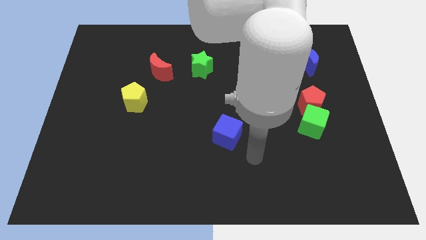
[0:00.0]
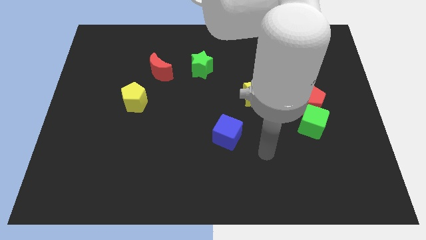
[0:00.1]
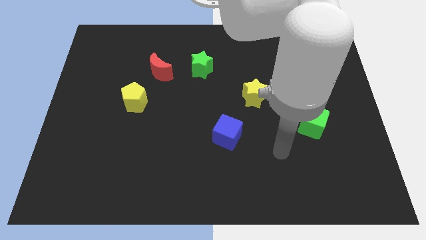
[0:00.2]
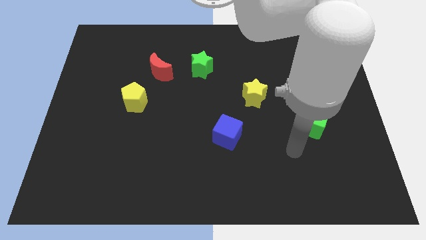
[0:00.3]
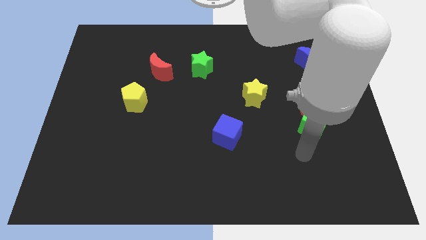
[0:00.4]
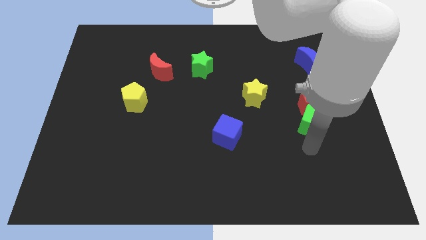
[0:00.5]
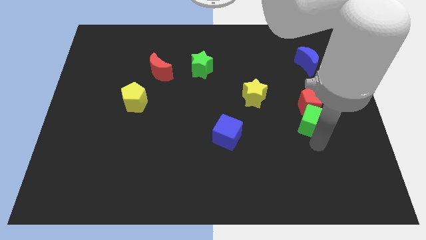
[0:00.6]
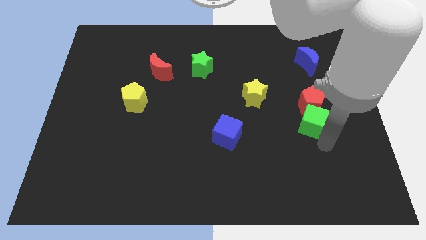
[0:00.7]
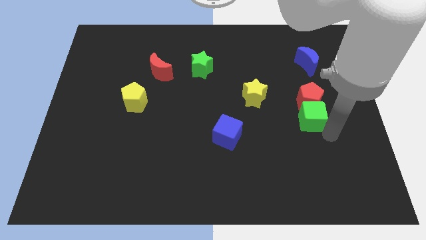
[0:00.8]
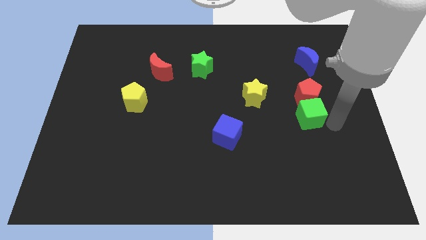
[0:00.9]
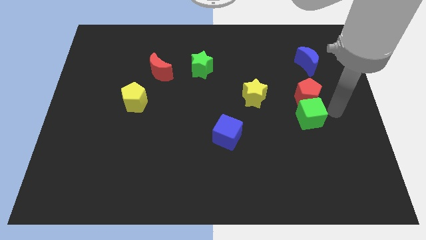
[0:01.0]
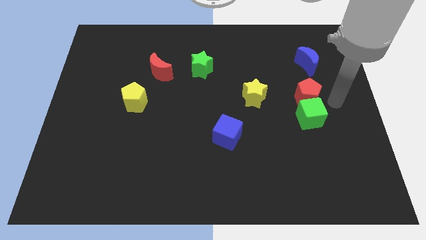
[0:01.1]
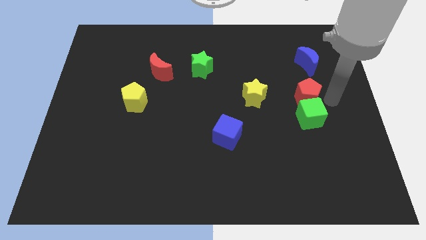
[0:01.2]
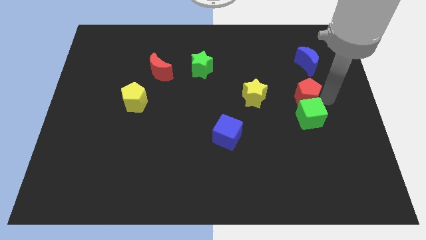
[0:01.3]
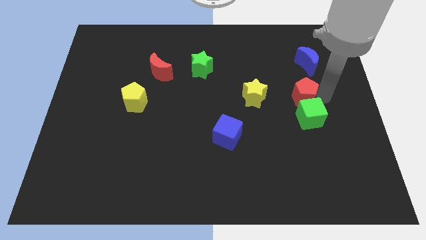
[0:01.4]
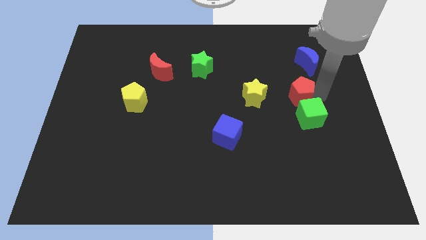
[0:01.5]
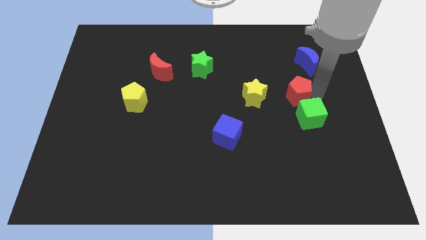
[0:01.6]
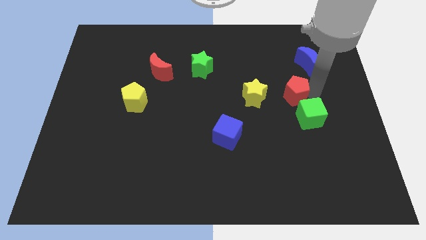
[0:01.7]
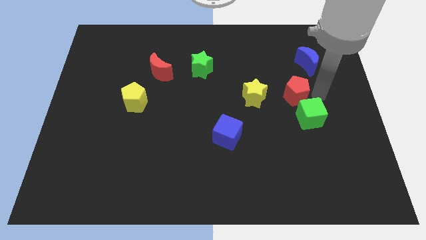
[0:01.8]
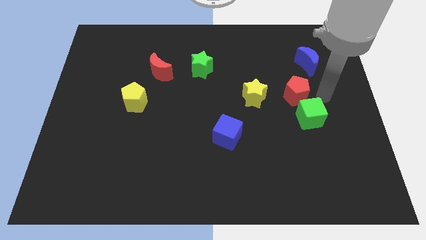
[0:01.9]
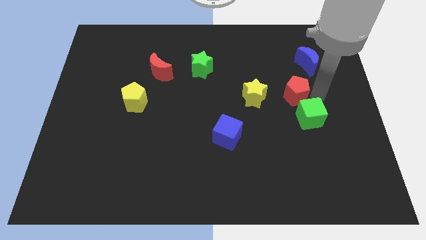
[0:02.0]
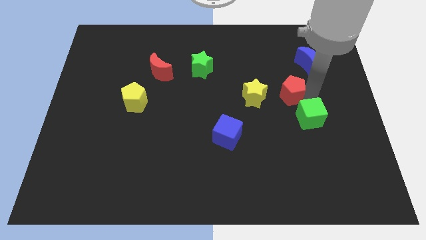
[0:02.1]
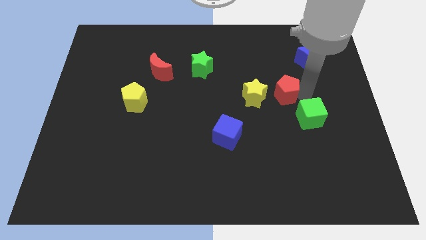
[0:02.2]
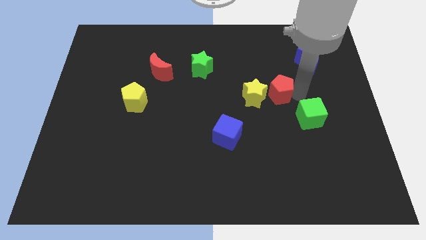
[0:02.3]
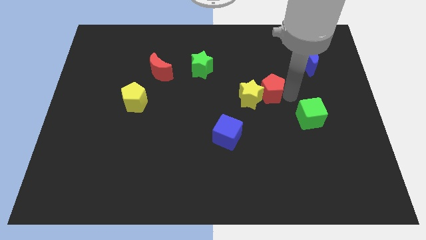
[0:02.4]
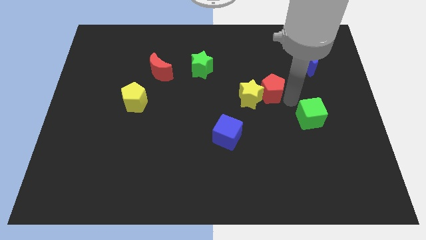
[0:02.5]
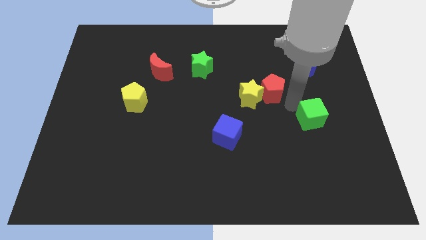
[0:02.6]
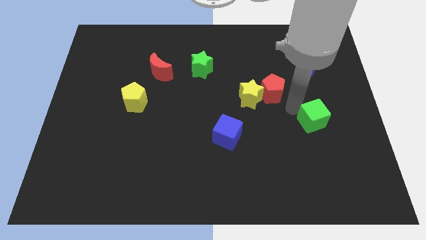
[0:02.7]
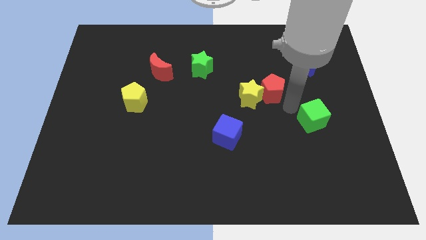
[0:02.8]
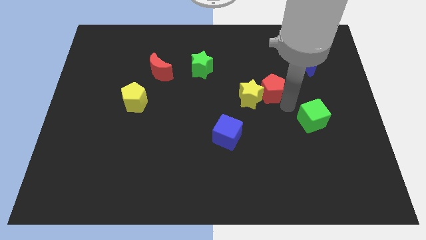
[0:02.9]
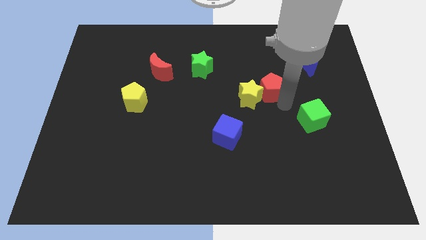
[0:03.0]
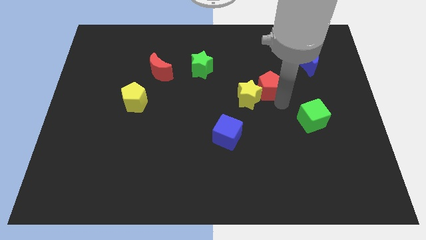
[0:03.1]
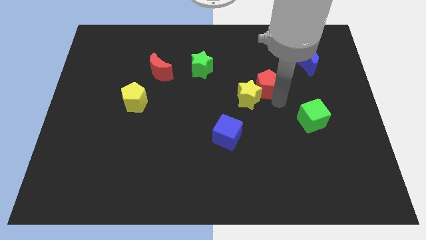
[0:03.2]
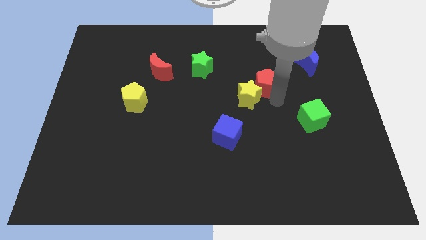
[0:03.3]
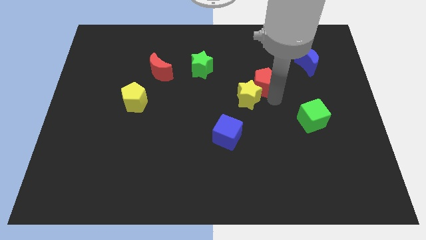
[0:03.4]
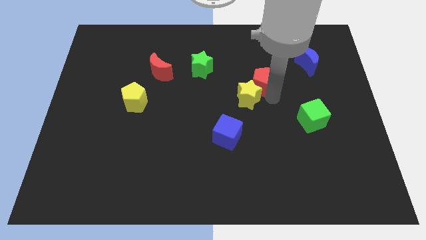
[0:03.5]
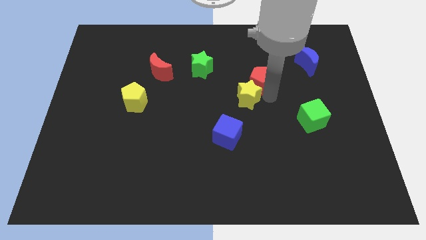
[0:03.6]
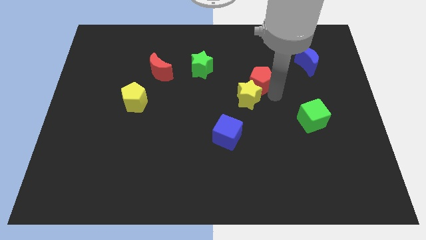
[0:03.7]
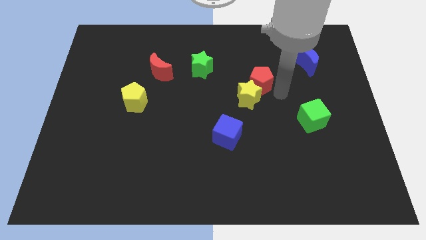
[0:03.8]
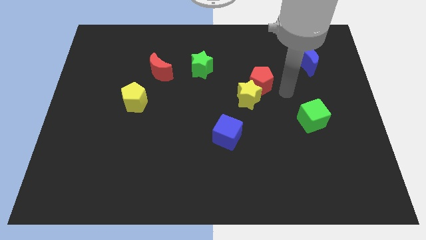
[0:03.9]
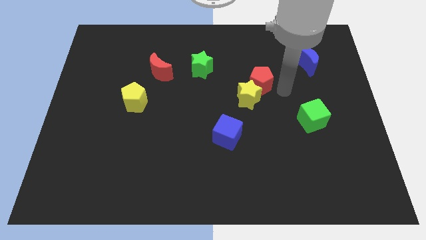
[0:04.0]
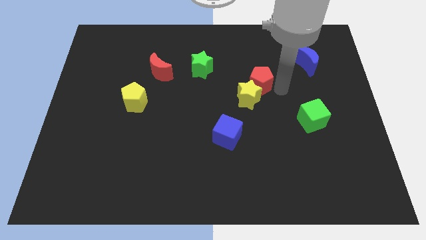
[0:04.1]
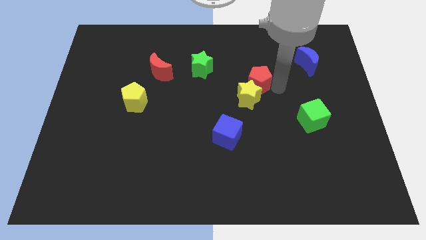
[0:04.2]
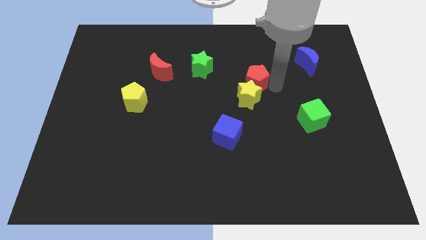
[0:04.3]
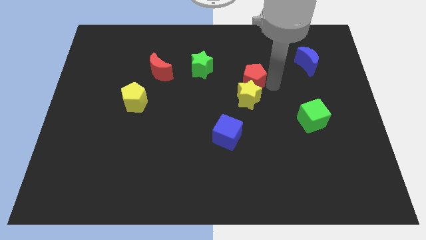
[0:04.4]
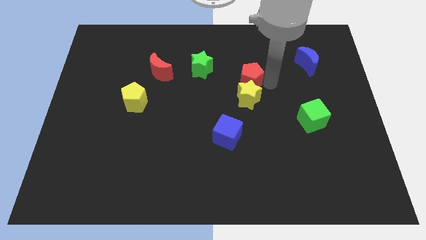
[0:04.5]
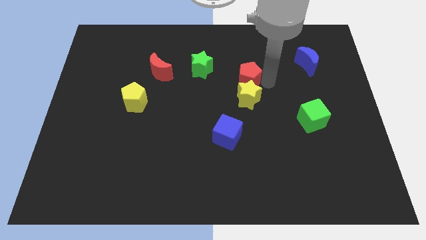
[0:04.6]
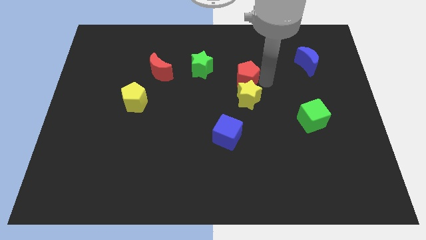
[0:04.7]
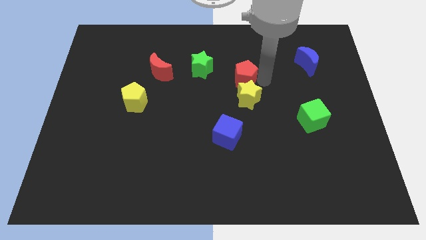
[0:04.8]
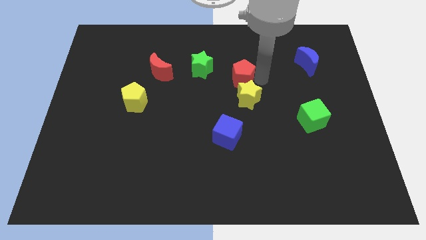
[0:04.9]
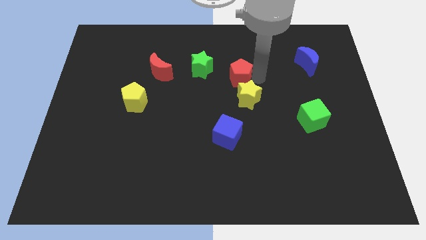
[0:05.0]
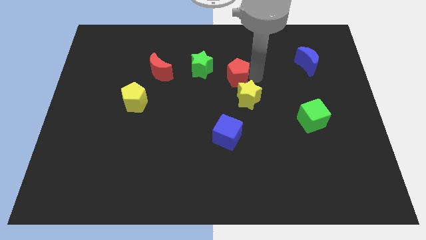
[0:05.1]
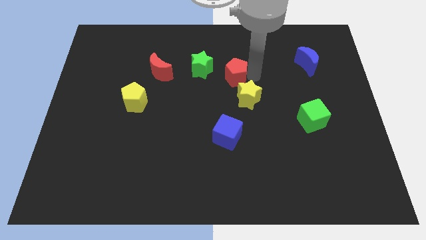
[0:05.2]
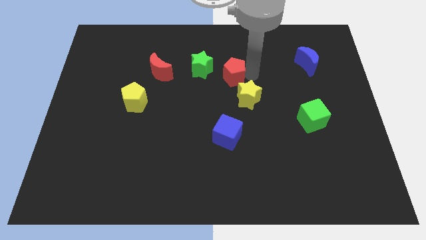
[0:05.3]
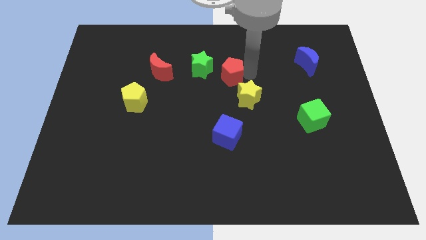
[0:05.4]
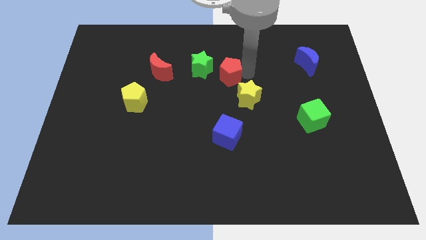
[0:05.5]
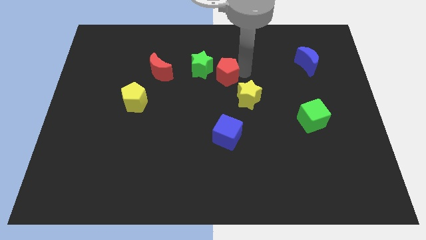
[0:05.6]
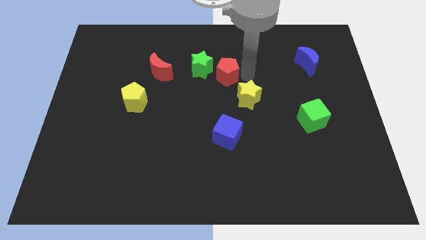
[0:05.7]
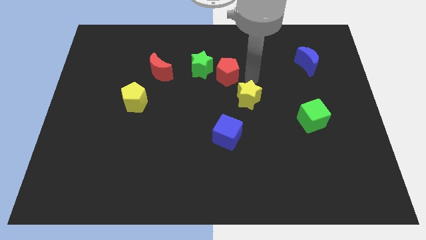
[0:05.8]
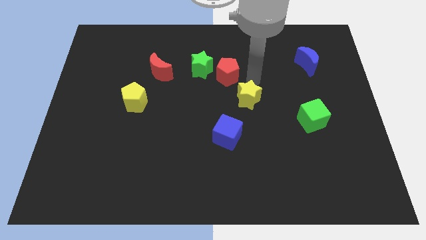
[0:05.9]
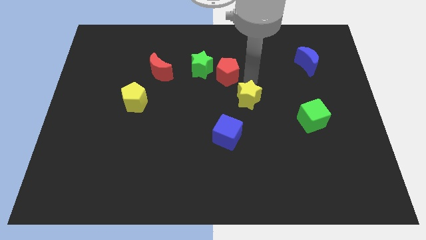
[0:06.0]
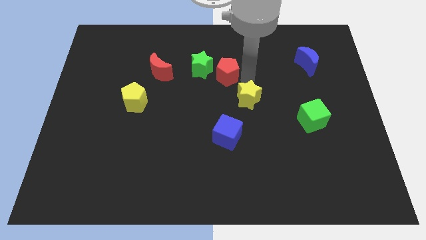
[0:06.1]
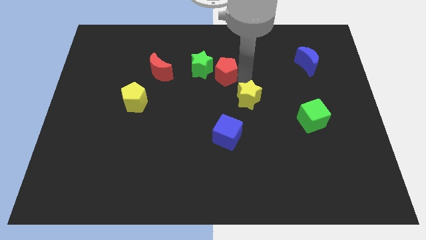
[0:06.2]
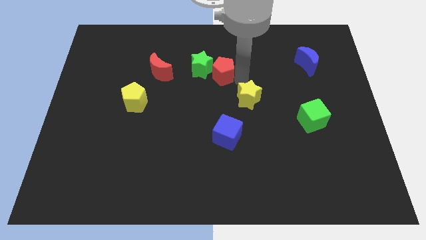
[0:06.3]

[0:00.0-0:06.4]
push the red pentagon to the green star
